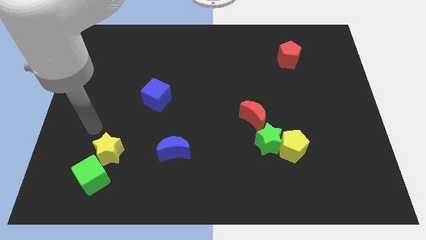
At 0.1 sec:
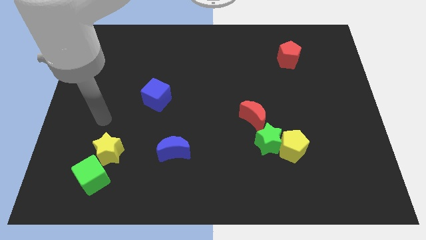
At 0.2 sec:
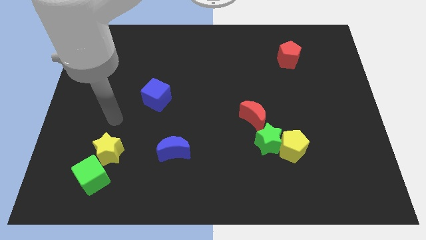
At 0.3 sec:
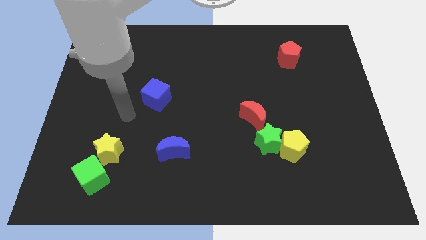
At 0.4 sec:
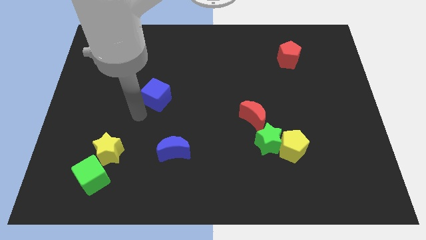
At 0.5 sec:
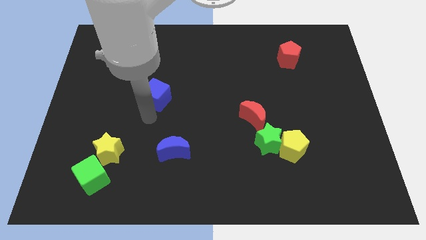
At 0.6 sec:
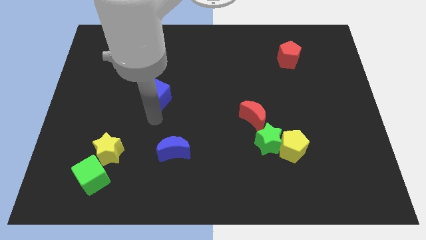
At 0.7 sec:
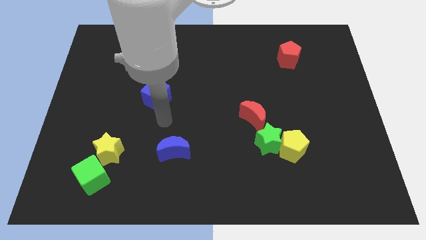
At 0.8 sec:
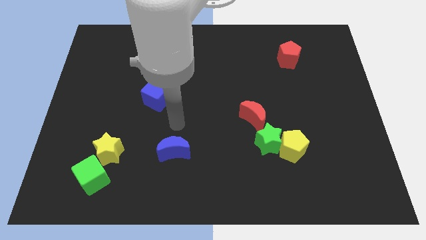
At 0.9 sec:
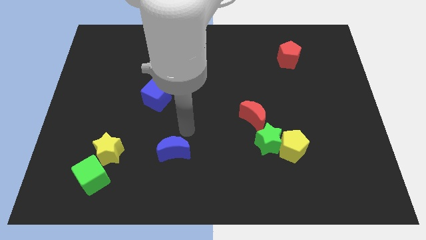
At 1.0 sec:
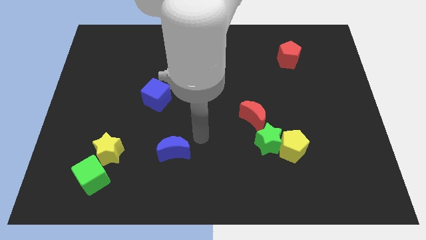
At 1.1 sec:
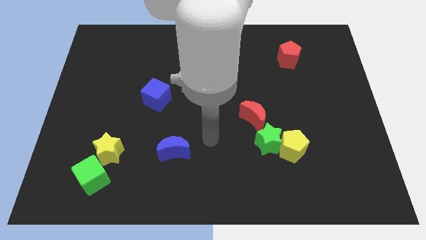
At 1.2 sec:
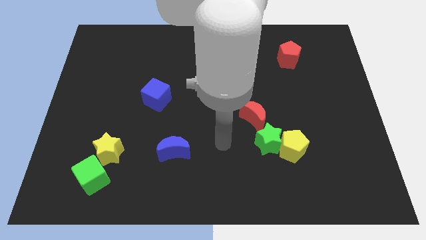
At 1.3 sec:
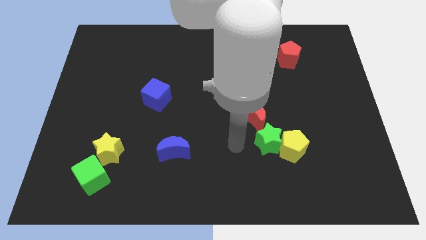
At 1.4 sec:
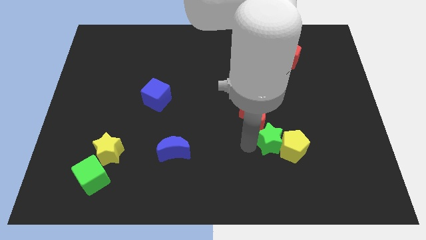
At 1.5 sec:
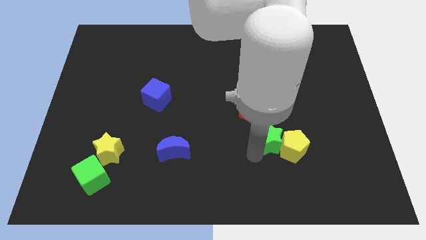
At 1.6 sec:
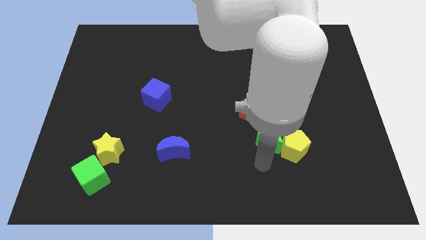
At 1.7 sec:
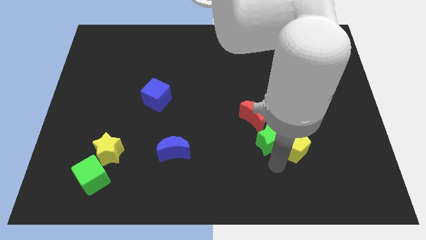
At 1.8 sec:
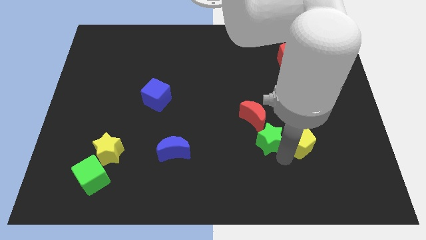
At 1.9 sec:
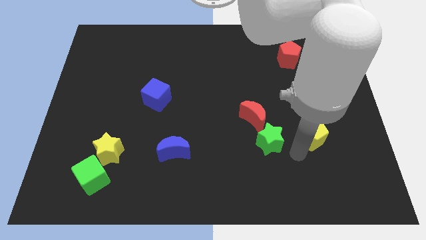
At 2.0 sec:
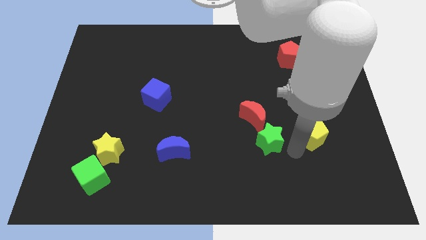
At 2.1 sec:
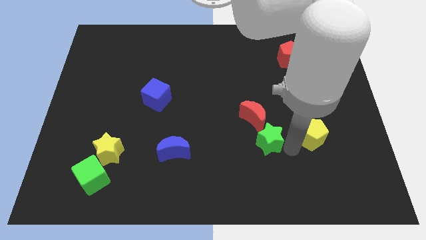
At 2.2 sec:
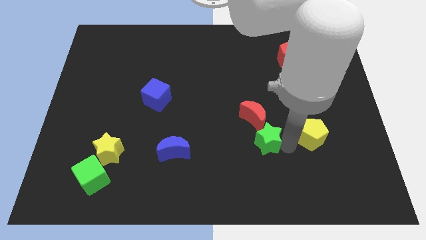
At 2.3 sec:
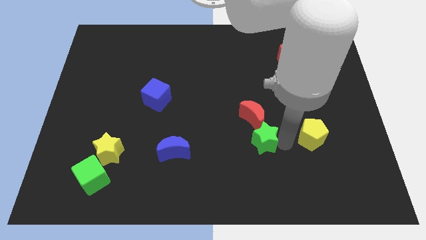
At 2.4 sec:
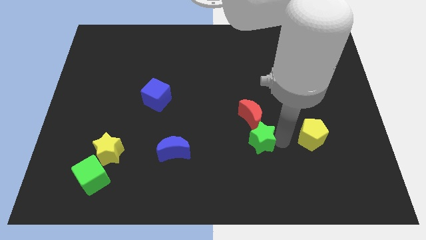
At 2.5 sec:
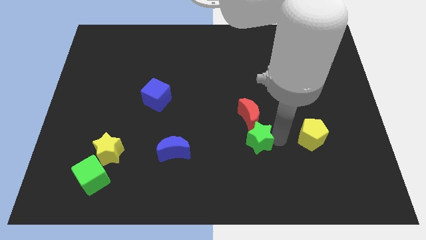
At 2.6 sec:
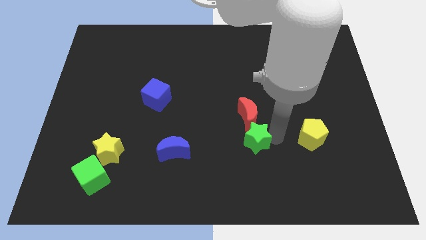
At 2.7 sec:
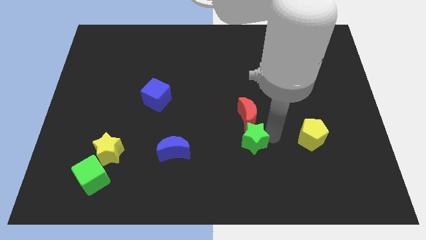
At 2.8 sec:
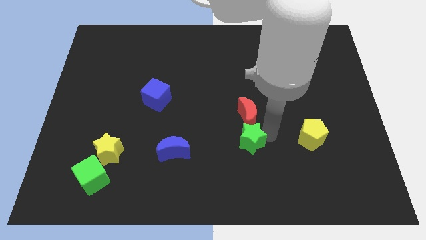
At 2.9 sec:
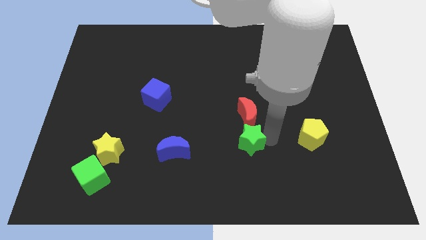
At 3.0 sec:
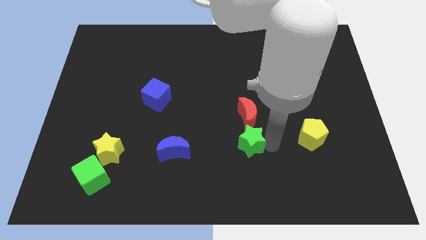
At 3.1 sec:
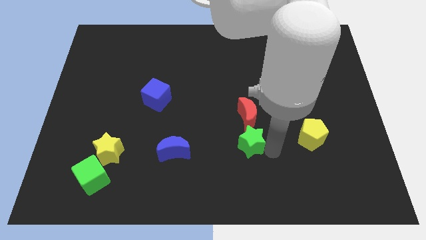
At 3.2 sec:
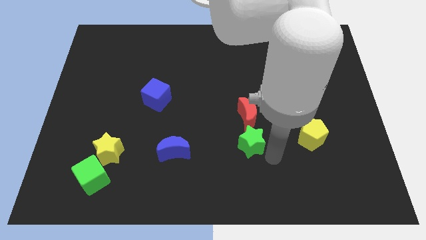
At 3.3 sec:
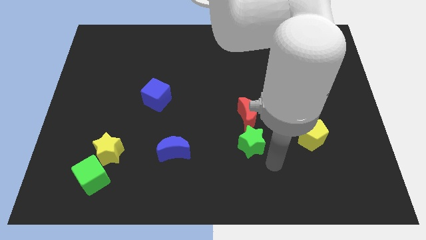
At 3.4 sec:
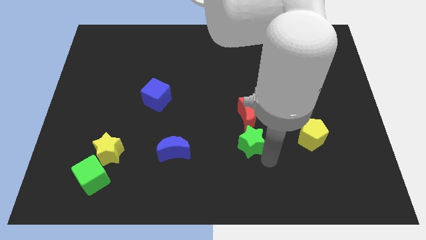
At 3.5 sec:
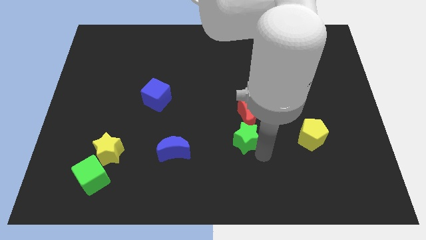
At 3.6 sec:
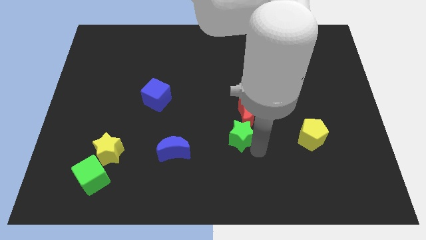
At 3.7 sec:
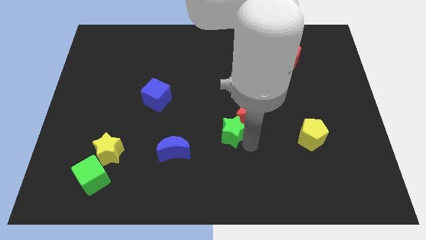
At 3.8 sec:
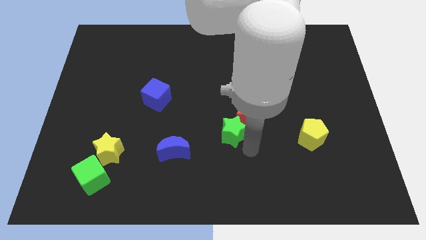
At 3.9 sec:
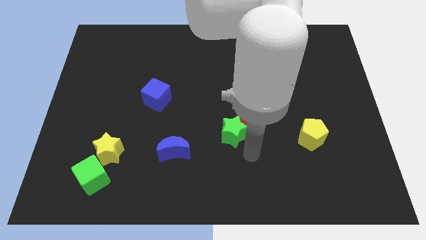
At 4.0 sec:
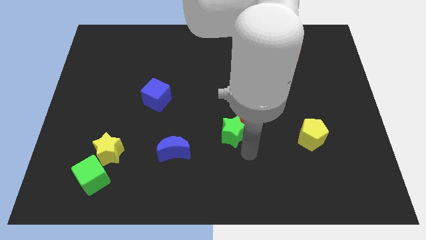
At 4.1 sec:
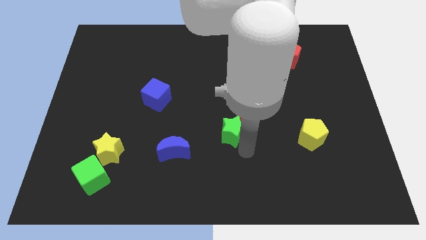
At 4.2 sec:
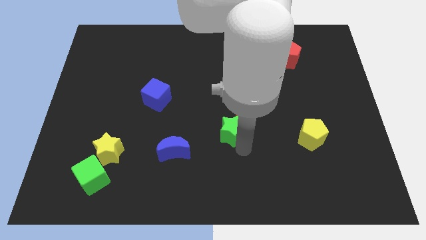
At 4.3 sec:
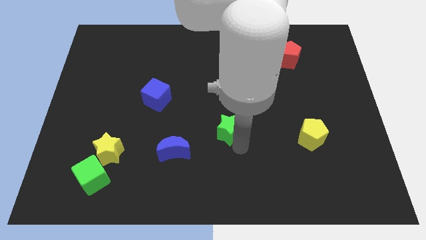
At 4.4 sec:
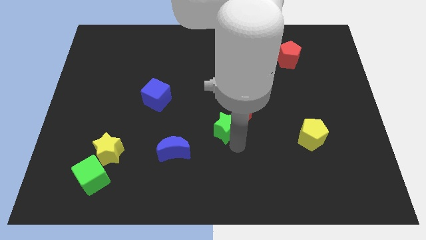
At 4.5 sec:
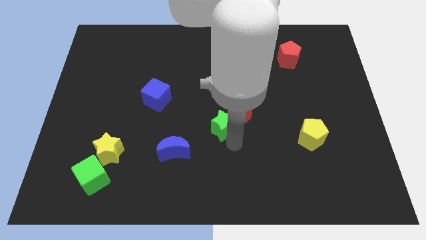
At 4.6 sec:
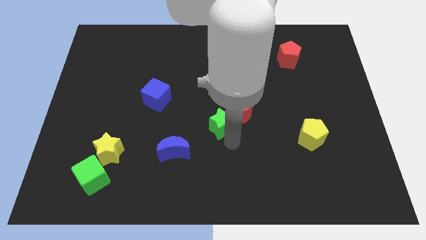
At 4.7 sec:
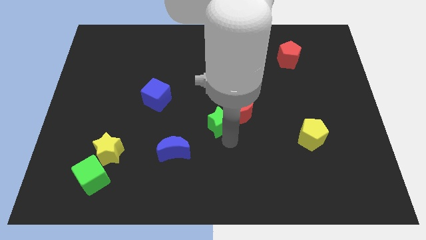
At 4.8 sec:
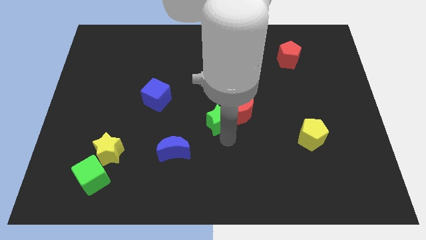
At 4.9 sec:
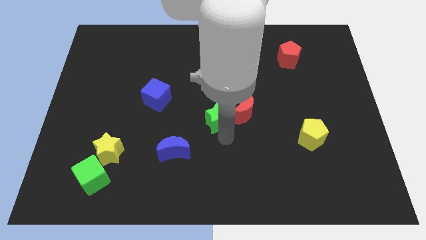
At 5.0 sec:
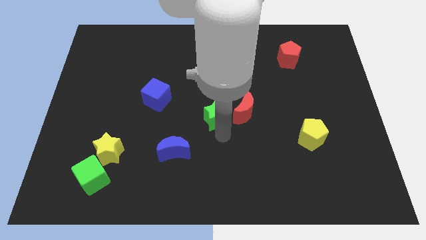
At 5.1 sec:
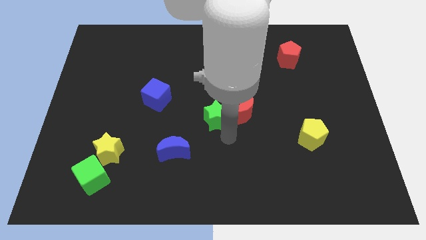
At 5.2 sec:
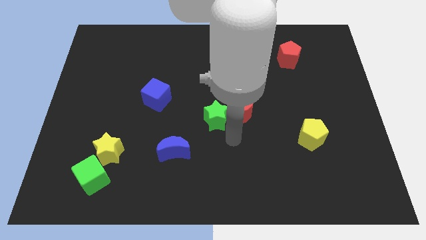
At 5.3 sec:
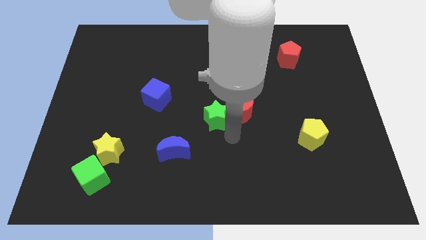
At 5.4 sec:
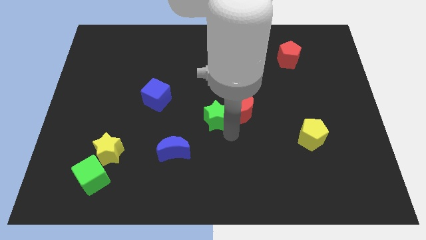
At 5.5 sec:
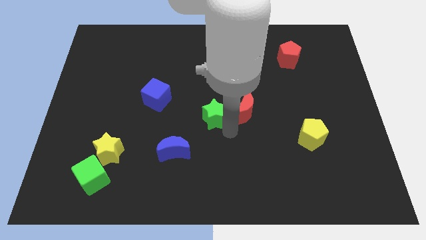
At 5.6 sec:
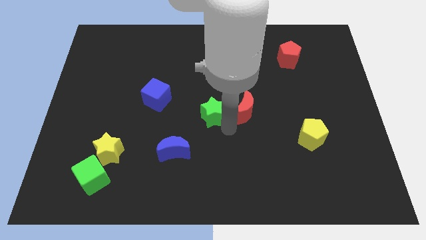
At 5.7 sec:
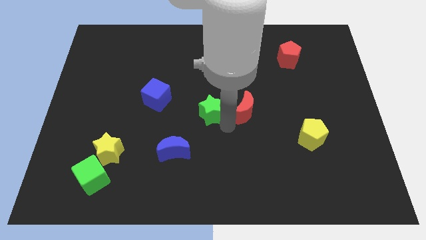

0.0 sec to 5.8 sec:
slide the green star right of the blue cube

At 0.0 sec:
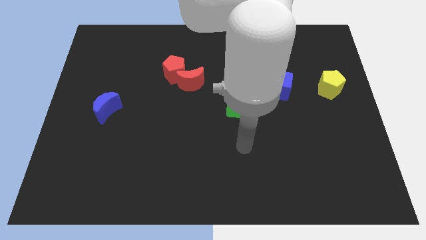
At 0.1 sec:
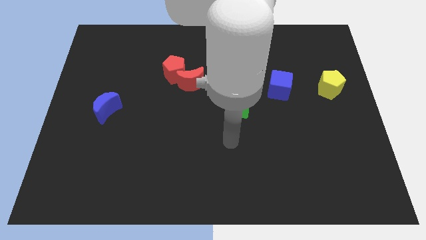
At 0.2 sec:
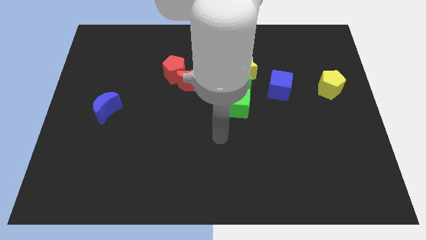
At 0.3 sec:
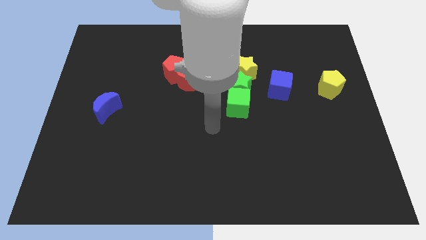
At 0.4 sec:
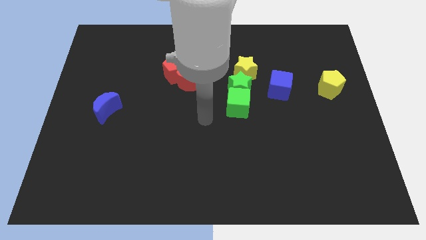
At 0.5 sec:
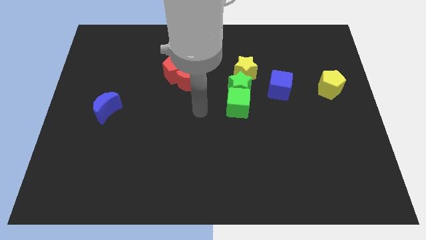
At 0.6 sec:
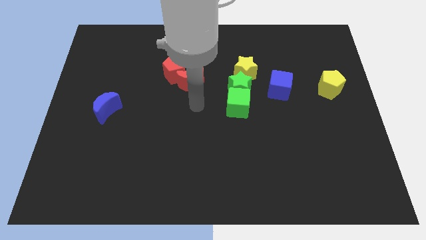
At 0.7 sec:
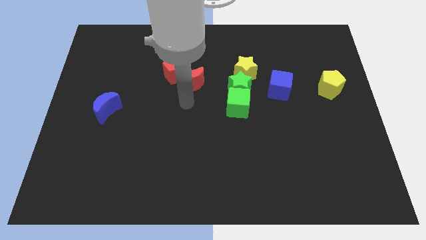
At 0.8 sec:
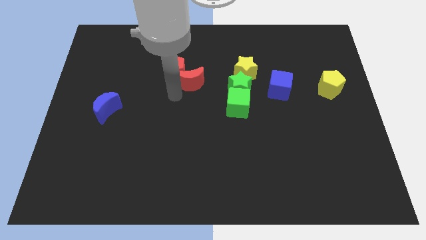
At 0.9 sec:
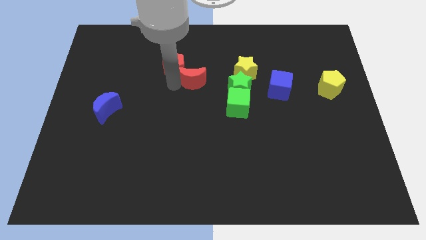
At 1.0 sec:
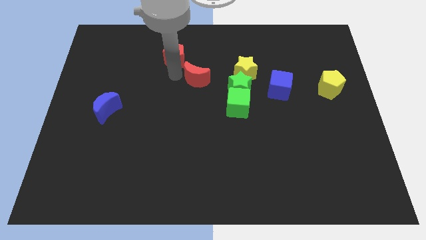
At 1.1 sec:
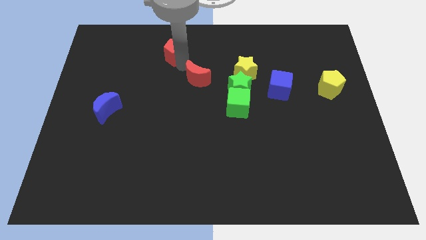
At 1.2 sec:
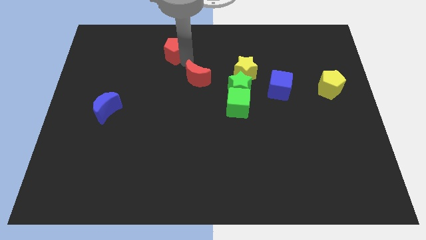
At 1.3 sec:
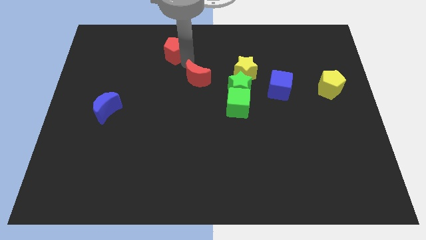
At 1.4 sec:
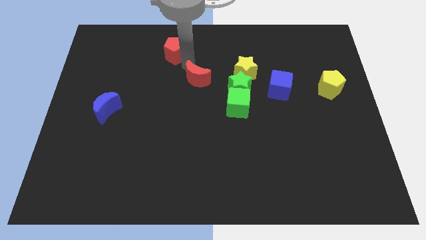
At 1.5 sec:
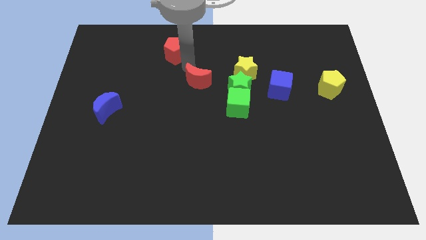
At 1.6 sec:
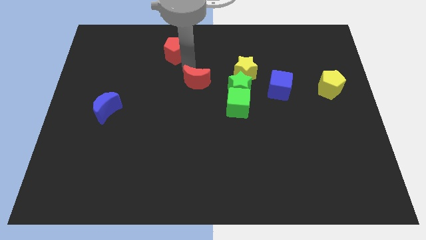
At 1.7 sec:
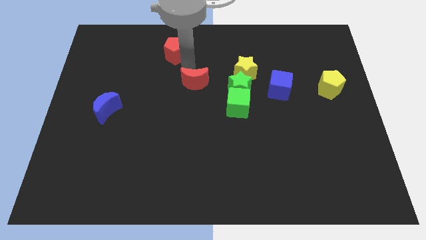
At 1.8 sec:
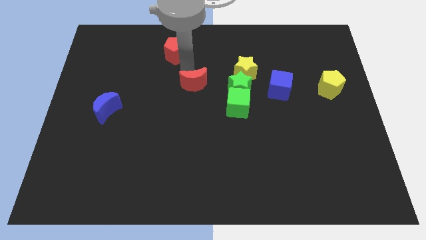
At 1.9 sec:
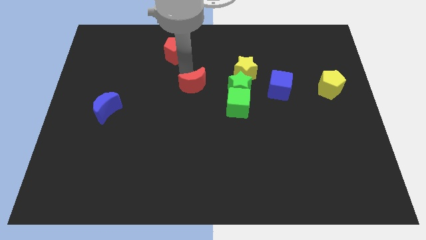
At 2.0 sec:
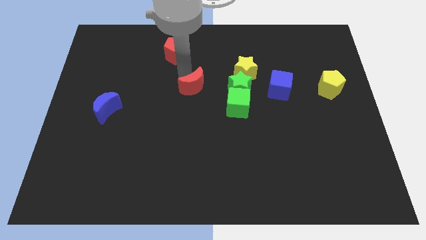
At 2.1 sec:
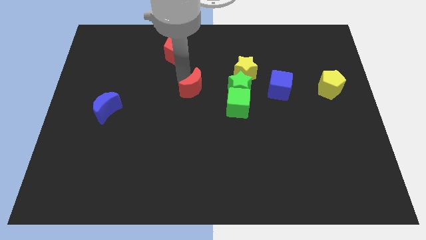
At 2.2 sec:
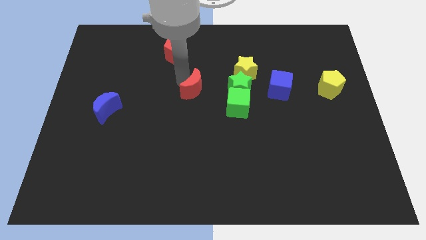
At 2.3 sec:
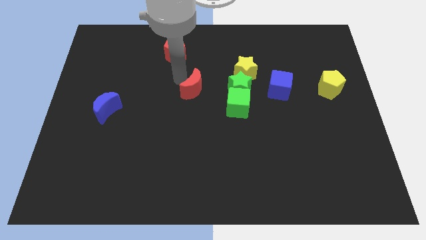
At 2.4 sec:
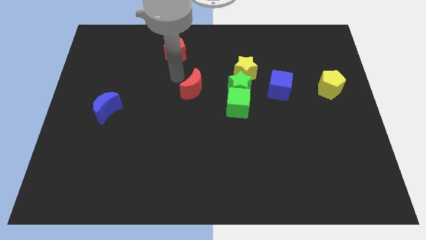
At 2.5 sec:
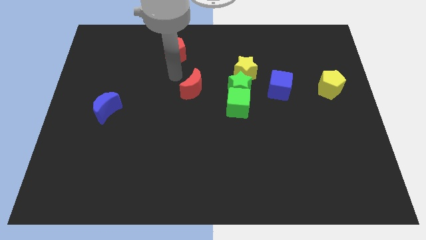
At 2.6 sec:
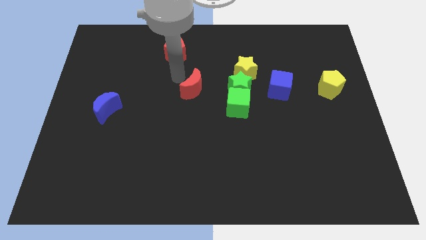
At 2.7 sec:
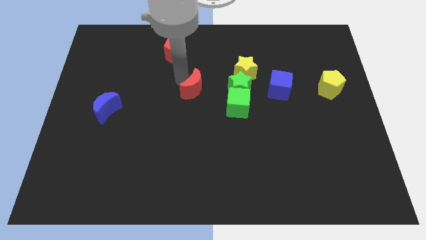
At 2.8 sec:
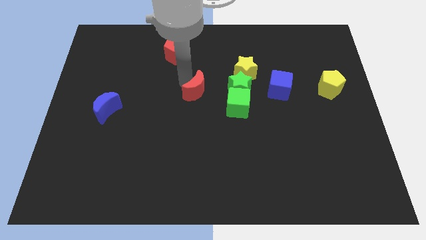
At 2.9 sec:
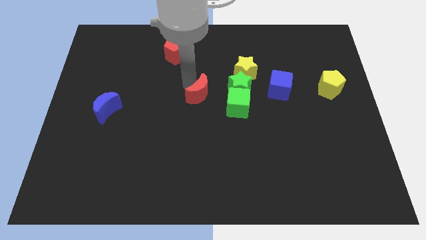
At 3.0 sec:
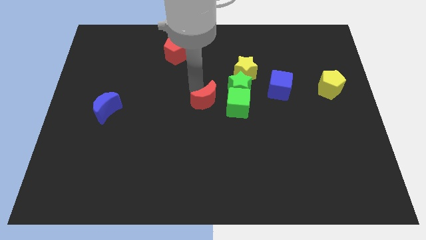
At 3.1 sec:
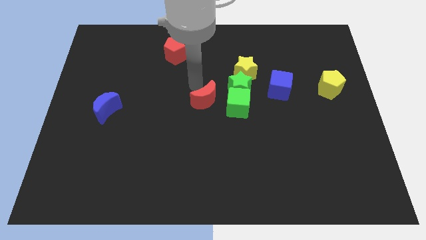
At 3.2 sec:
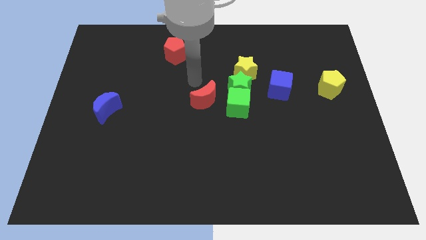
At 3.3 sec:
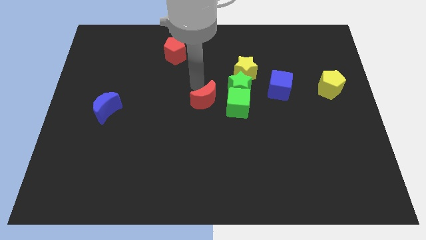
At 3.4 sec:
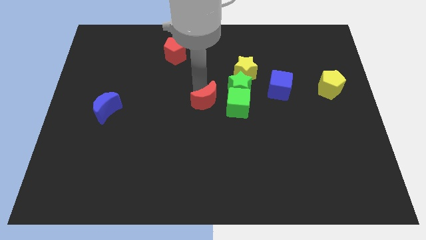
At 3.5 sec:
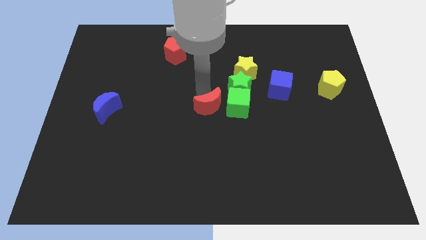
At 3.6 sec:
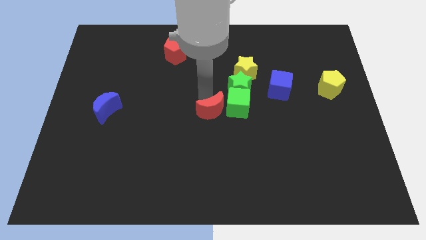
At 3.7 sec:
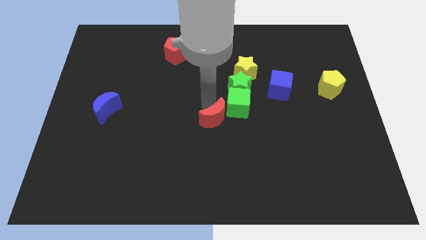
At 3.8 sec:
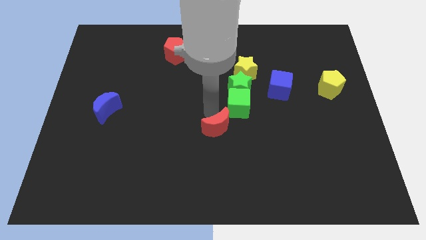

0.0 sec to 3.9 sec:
push the red moon below the green cube
